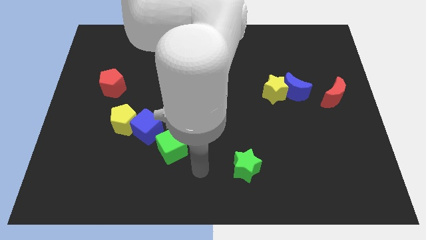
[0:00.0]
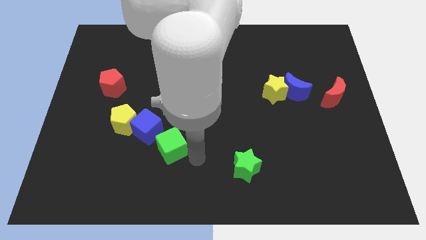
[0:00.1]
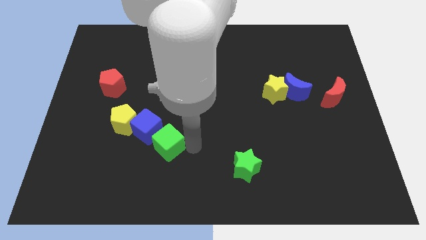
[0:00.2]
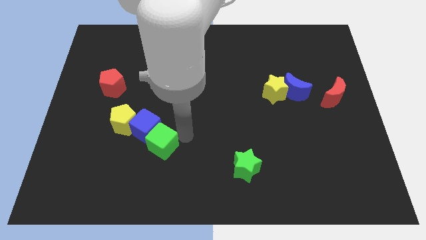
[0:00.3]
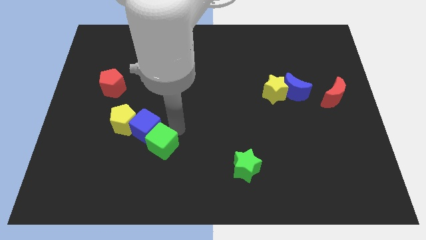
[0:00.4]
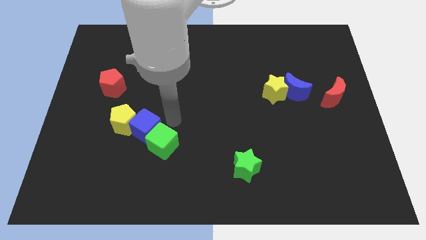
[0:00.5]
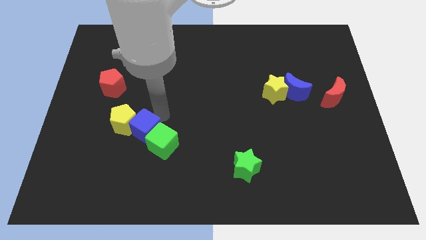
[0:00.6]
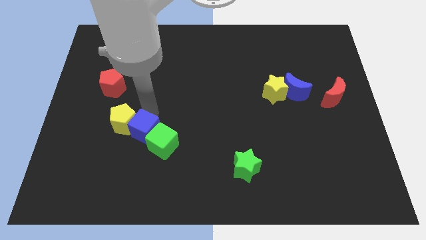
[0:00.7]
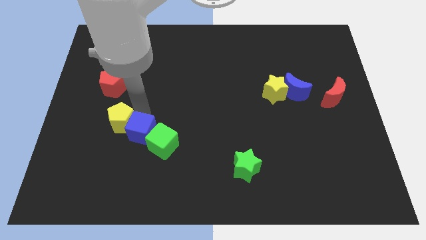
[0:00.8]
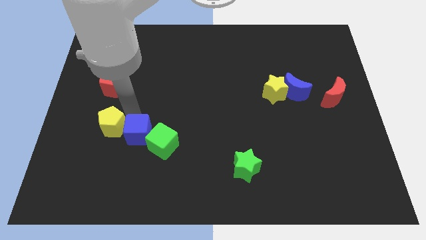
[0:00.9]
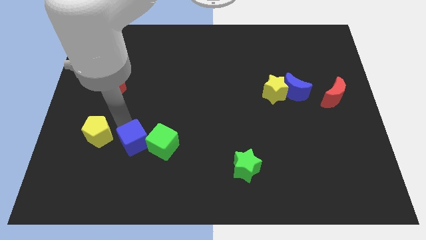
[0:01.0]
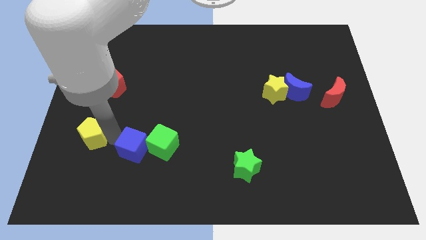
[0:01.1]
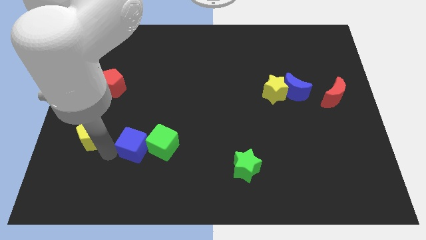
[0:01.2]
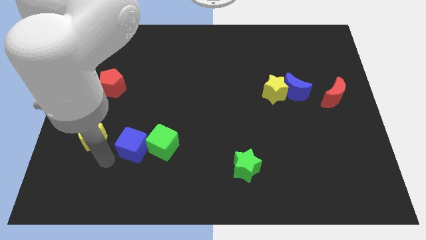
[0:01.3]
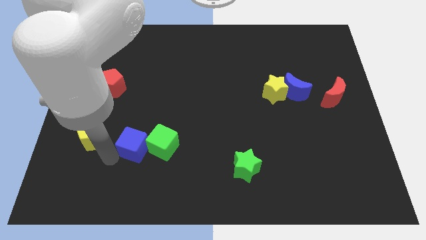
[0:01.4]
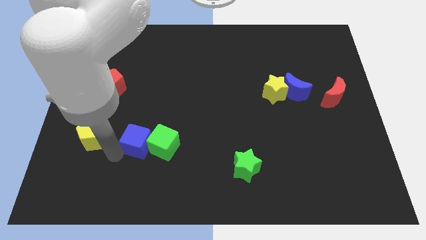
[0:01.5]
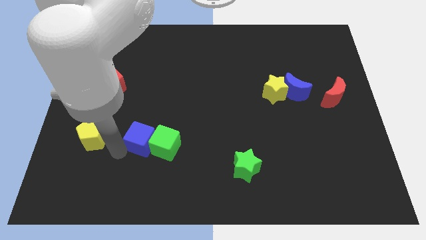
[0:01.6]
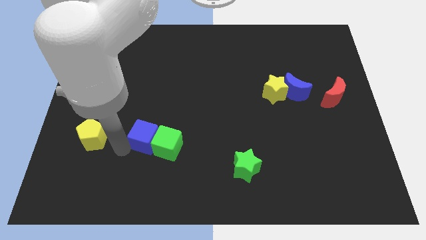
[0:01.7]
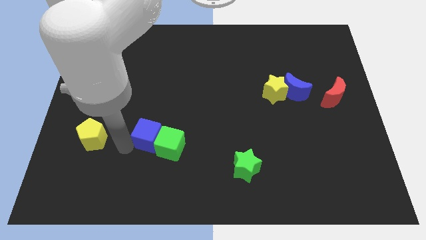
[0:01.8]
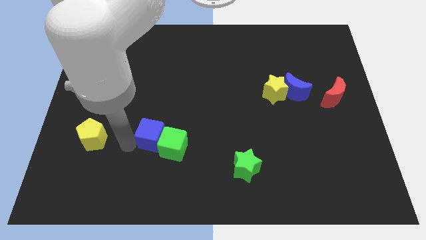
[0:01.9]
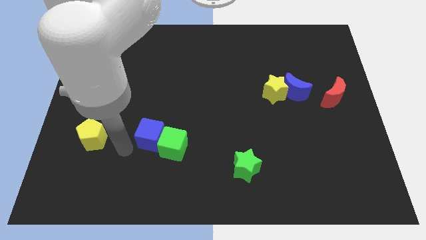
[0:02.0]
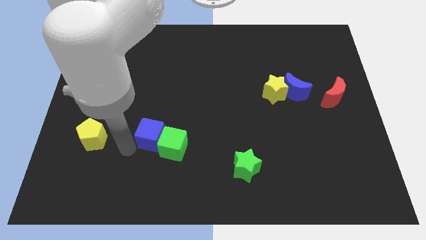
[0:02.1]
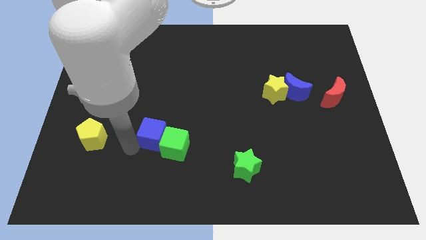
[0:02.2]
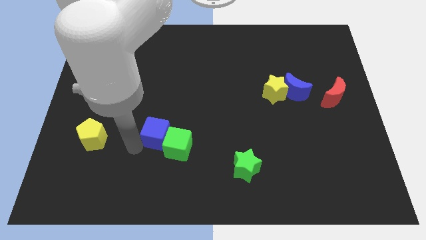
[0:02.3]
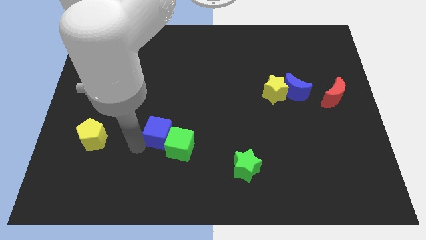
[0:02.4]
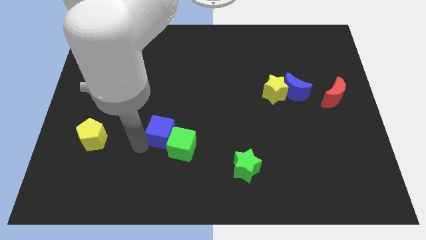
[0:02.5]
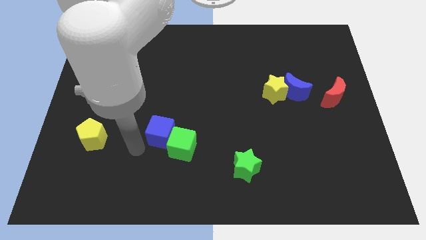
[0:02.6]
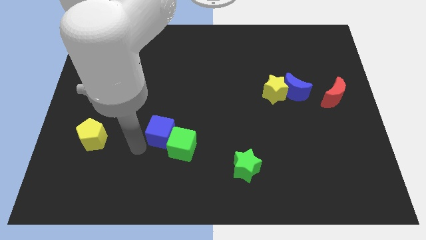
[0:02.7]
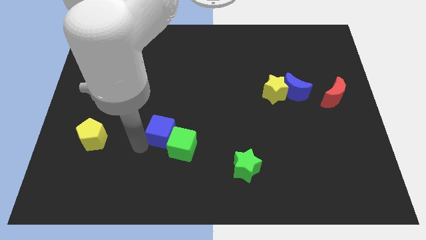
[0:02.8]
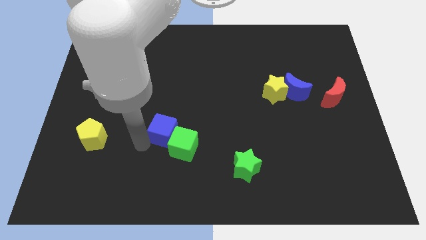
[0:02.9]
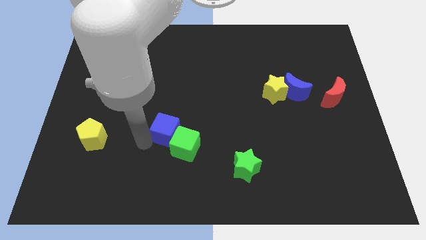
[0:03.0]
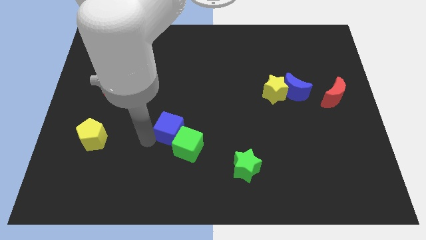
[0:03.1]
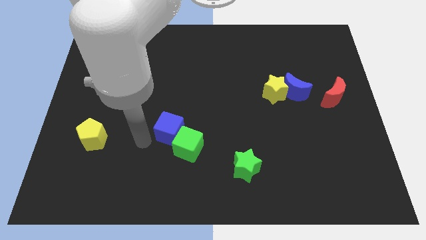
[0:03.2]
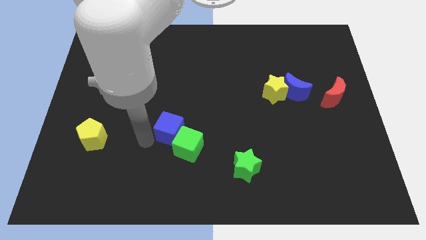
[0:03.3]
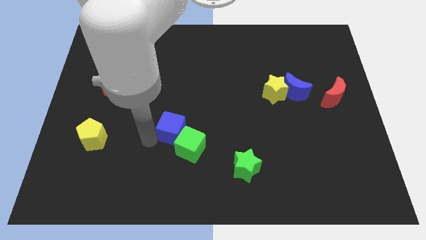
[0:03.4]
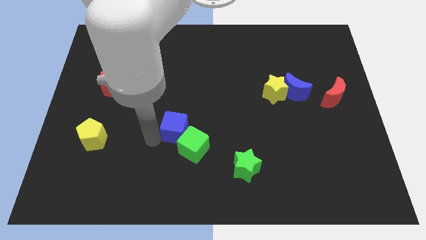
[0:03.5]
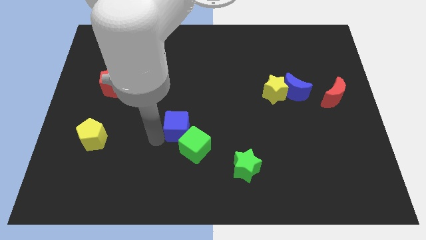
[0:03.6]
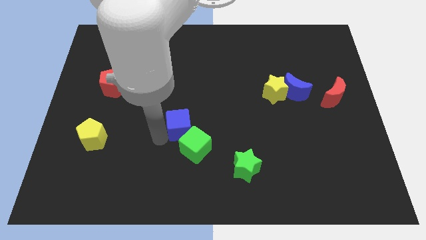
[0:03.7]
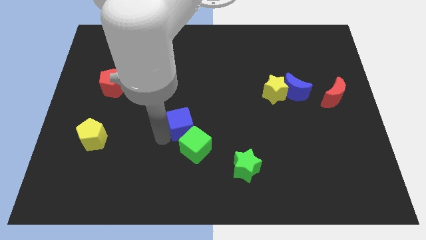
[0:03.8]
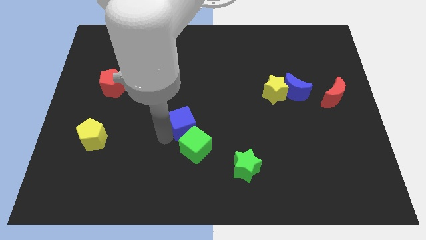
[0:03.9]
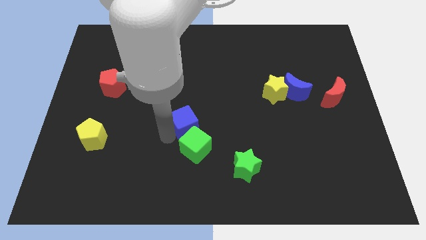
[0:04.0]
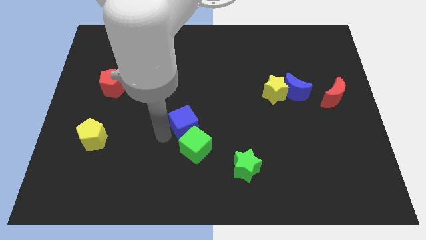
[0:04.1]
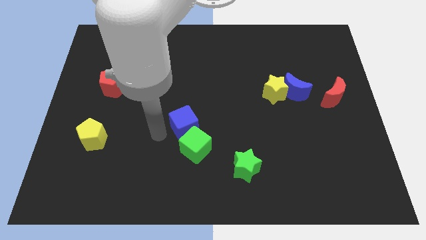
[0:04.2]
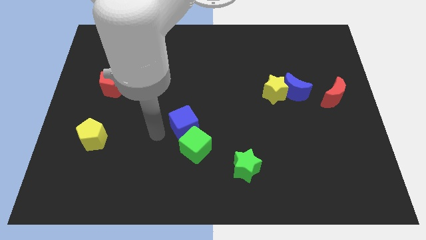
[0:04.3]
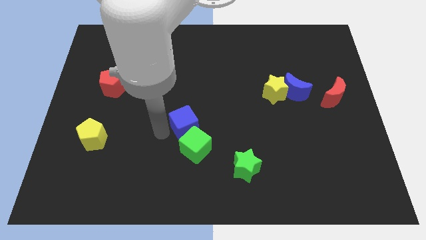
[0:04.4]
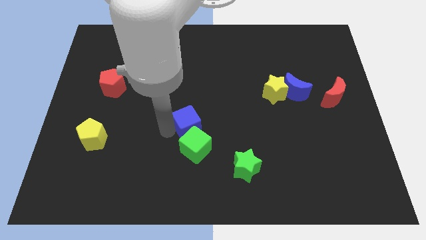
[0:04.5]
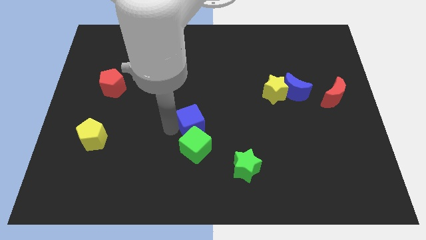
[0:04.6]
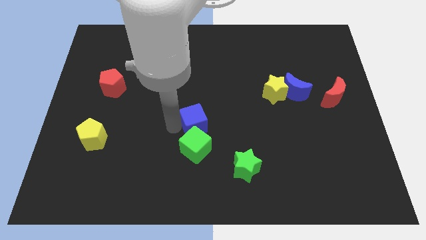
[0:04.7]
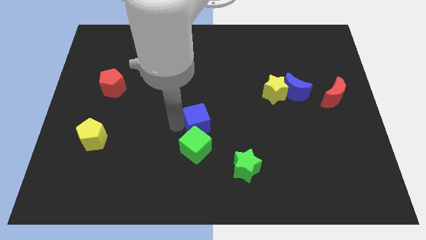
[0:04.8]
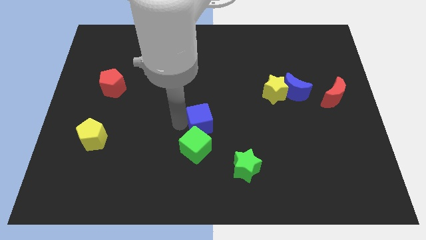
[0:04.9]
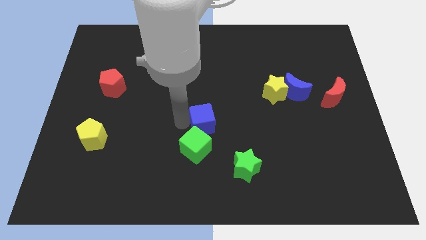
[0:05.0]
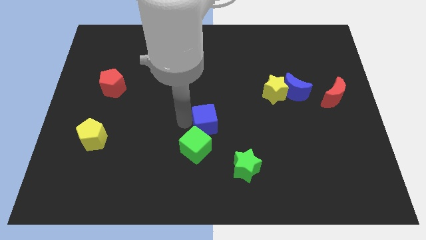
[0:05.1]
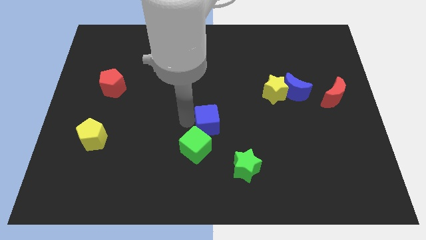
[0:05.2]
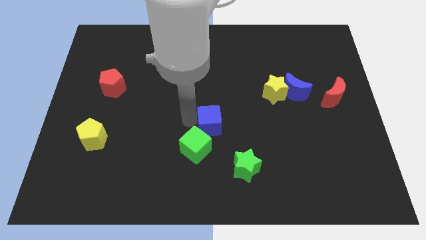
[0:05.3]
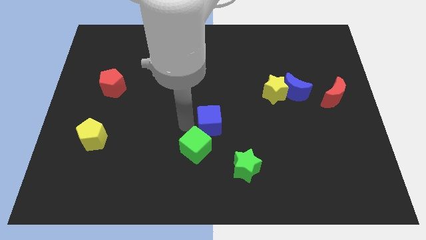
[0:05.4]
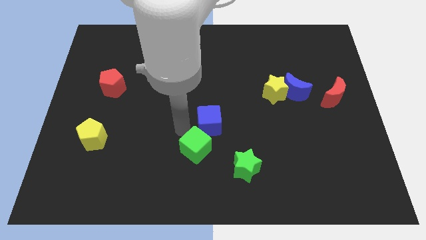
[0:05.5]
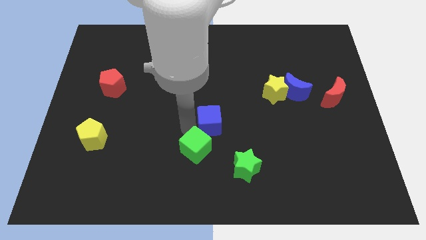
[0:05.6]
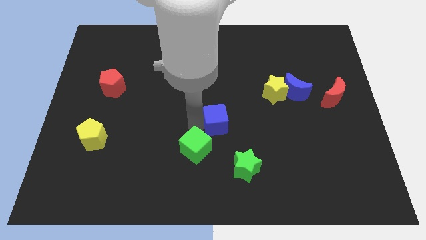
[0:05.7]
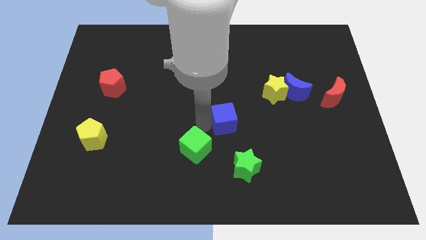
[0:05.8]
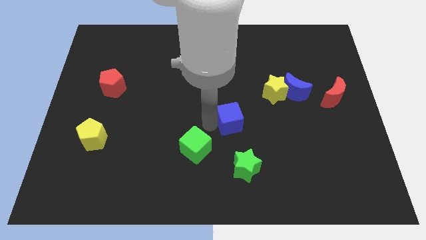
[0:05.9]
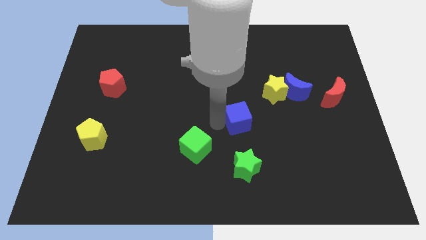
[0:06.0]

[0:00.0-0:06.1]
slide the blue cube to the right

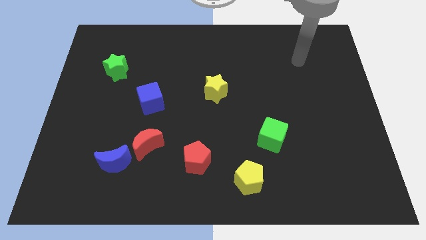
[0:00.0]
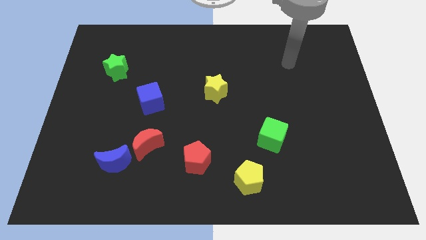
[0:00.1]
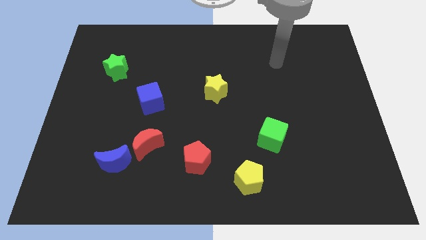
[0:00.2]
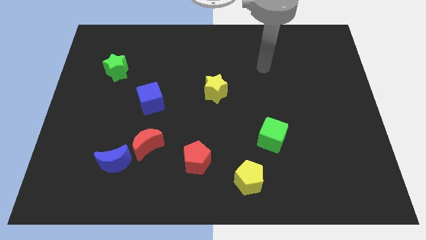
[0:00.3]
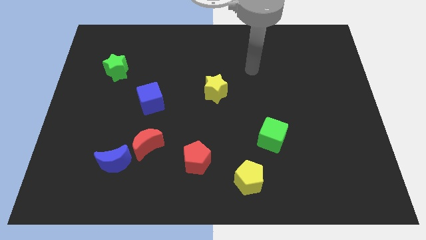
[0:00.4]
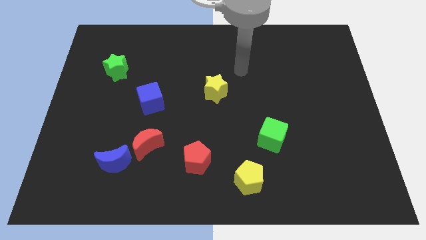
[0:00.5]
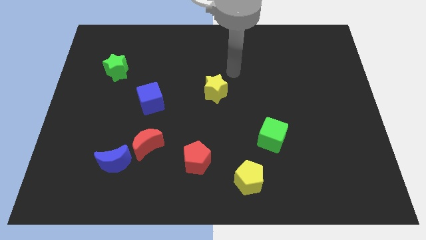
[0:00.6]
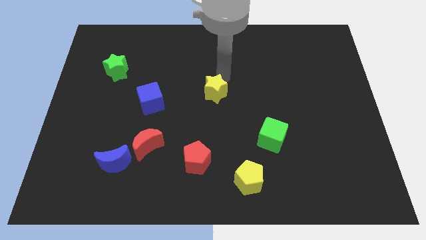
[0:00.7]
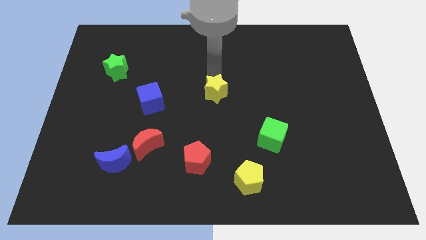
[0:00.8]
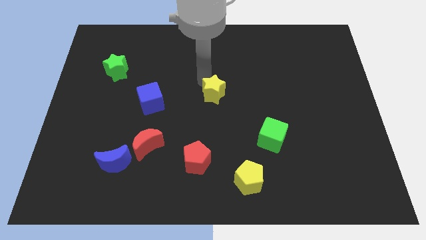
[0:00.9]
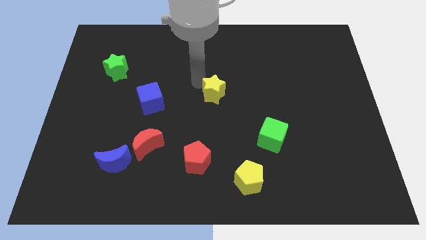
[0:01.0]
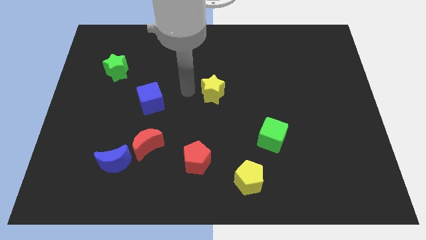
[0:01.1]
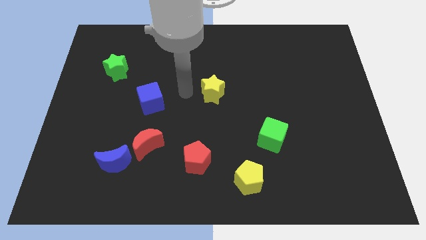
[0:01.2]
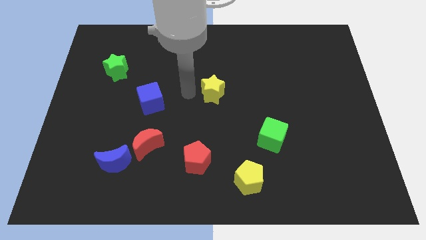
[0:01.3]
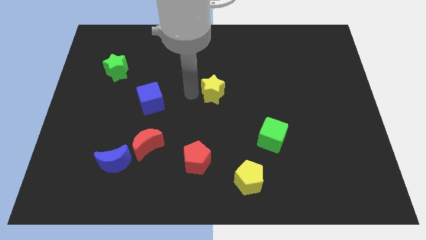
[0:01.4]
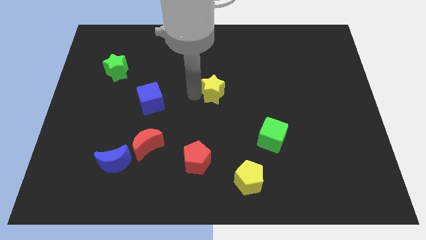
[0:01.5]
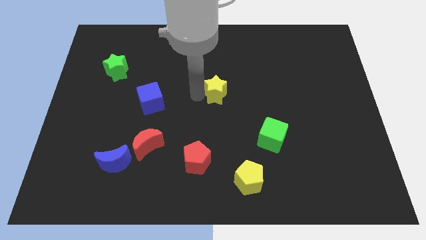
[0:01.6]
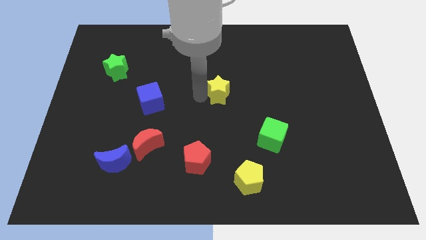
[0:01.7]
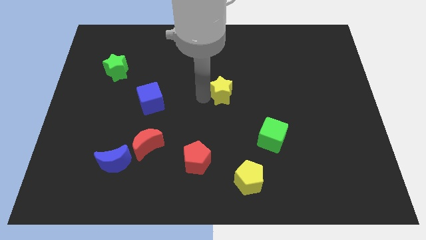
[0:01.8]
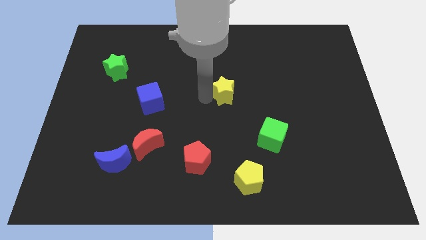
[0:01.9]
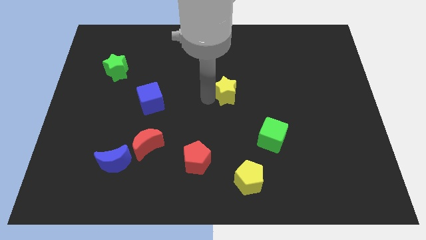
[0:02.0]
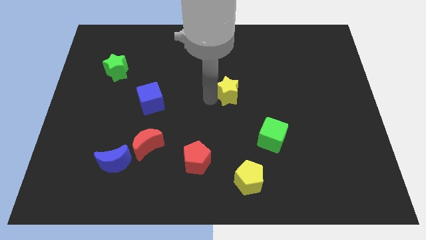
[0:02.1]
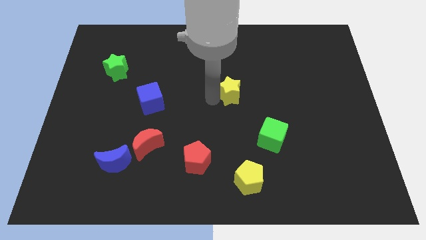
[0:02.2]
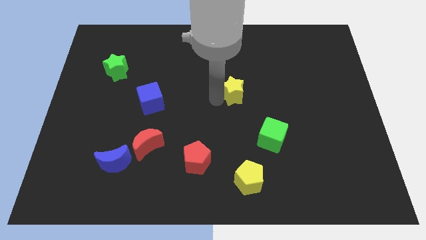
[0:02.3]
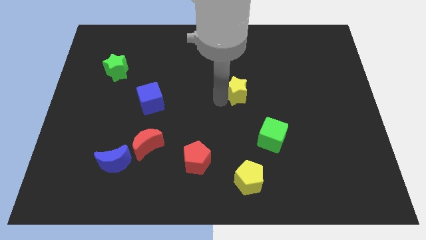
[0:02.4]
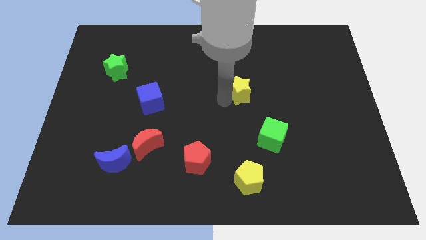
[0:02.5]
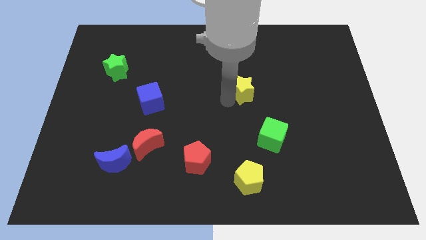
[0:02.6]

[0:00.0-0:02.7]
slightly slide the yellow star to the right
